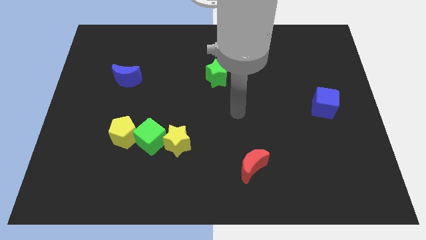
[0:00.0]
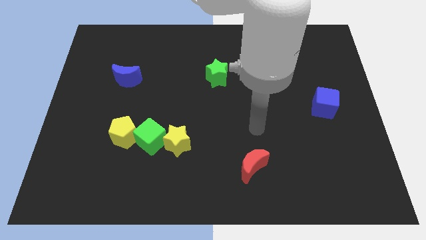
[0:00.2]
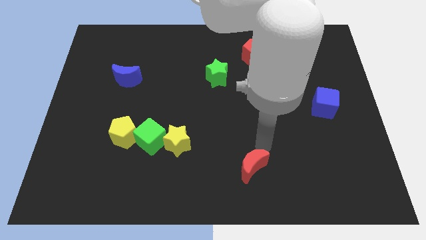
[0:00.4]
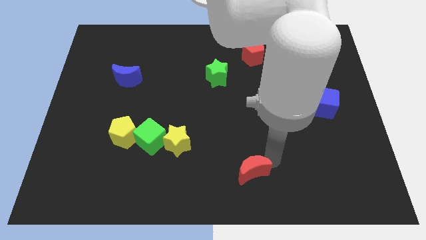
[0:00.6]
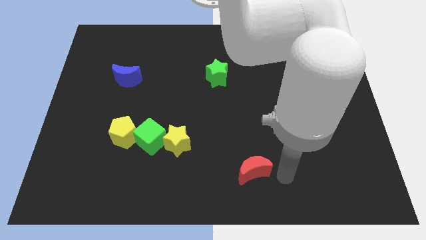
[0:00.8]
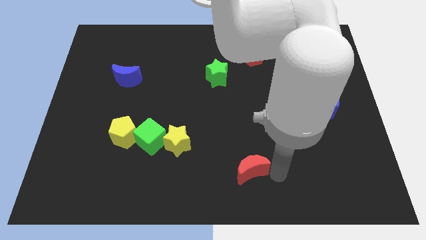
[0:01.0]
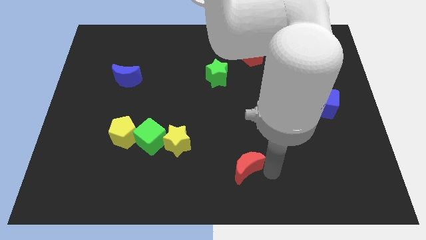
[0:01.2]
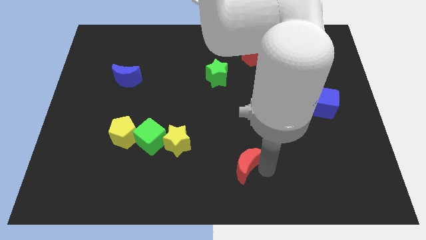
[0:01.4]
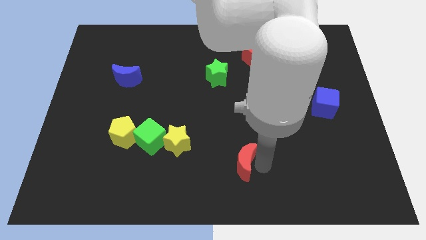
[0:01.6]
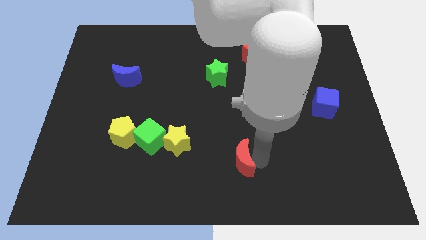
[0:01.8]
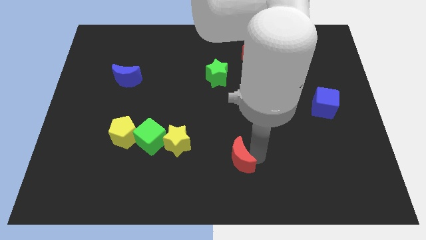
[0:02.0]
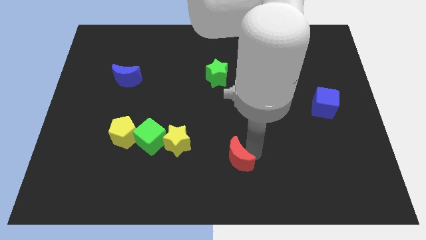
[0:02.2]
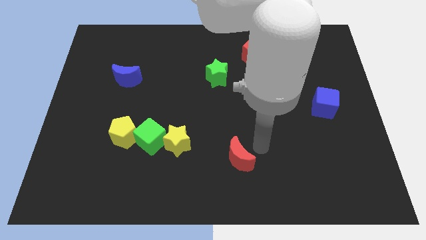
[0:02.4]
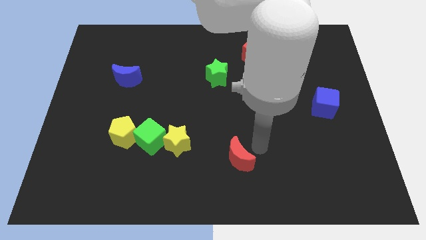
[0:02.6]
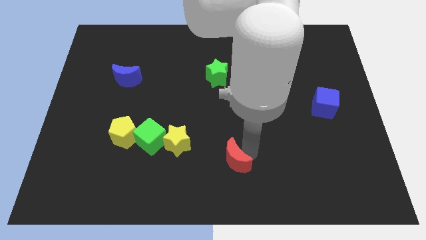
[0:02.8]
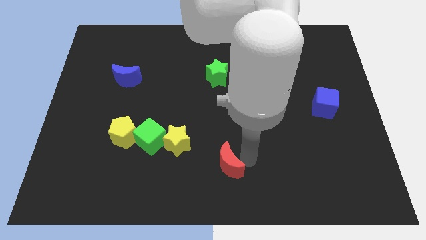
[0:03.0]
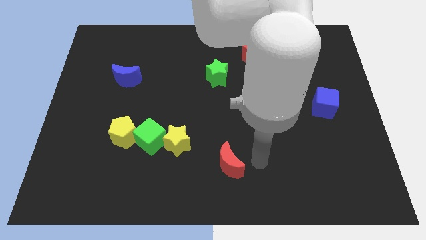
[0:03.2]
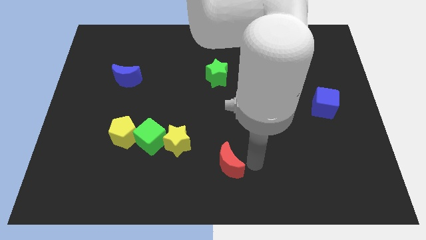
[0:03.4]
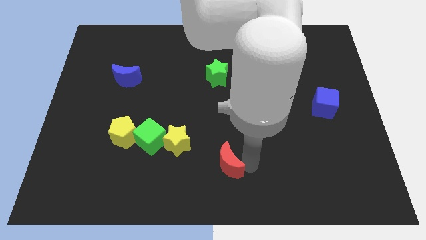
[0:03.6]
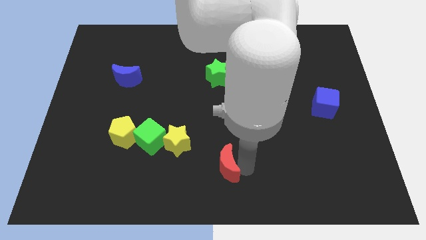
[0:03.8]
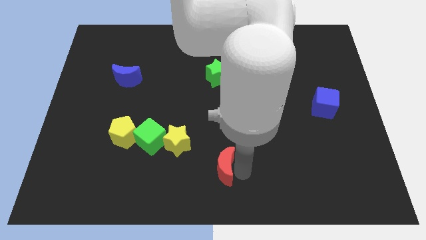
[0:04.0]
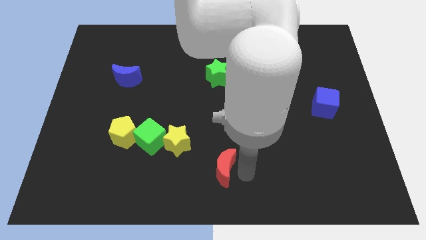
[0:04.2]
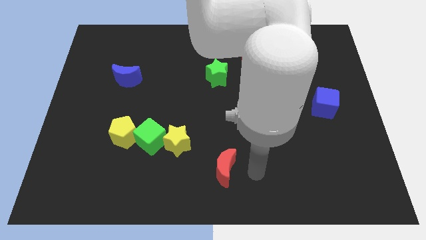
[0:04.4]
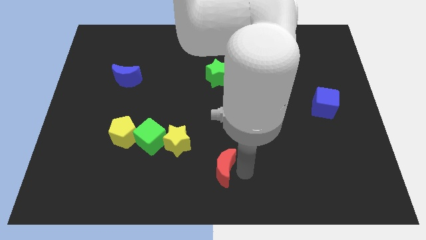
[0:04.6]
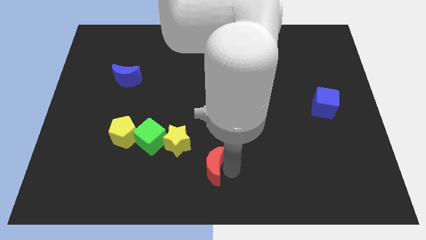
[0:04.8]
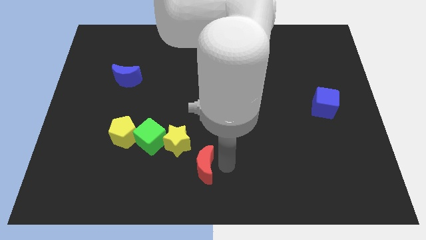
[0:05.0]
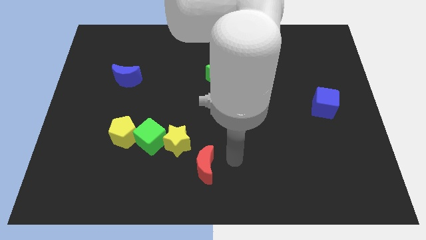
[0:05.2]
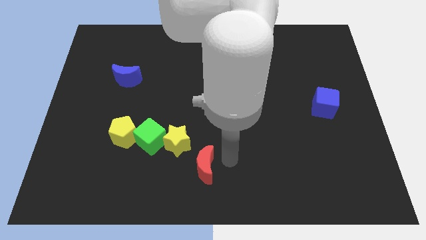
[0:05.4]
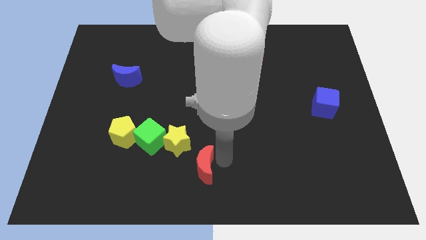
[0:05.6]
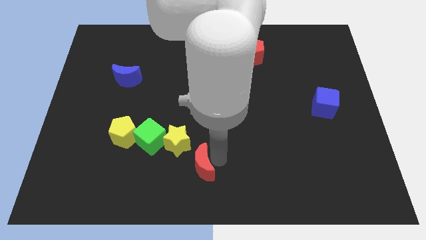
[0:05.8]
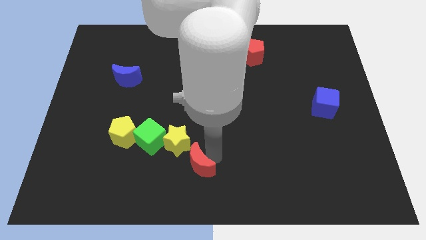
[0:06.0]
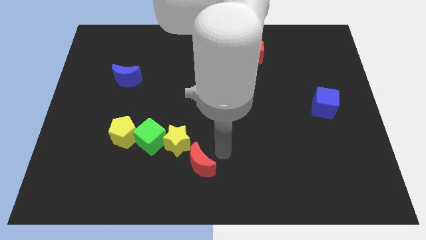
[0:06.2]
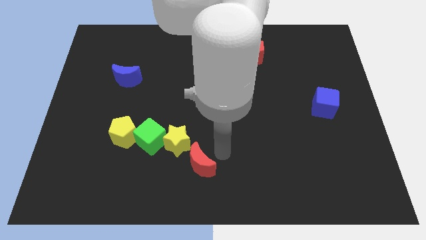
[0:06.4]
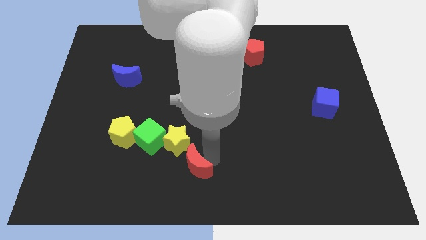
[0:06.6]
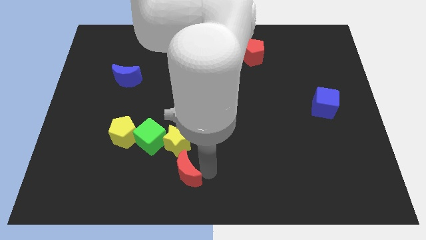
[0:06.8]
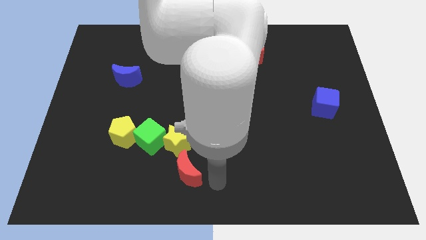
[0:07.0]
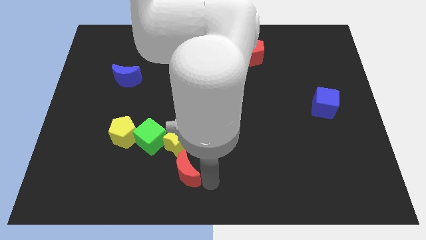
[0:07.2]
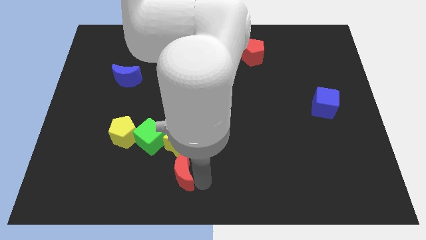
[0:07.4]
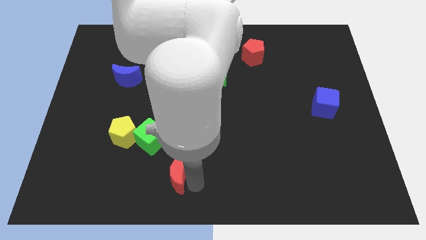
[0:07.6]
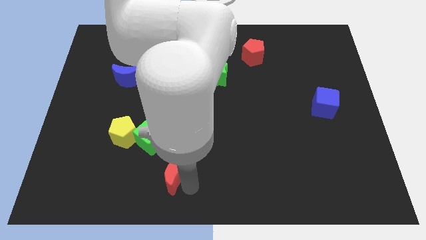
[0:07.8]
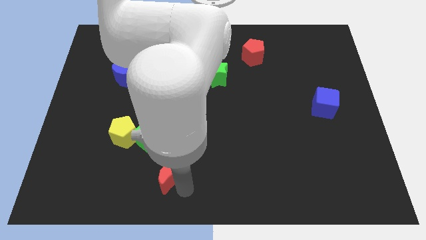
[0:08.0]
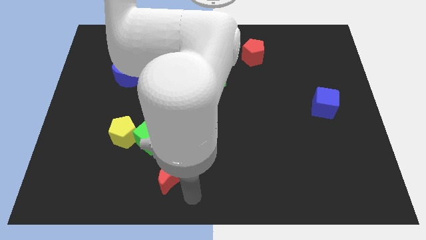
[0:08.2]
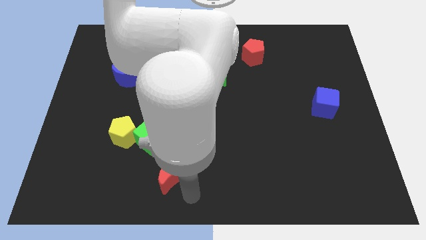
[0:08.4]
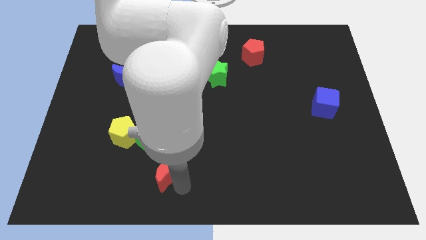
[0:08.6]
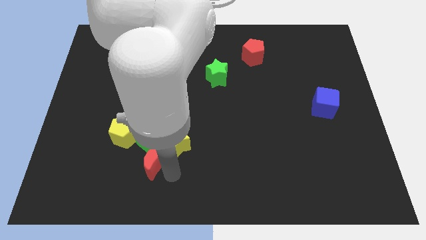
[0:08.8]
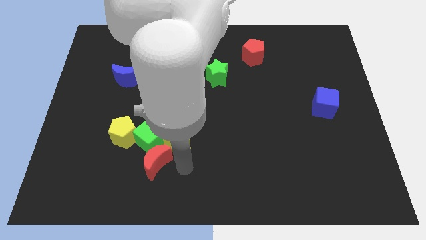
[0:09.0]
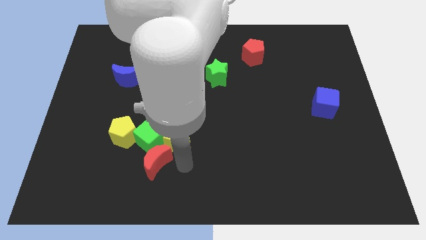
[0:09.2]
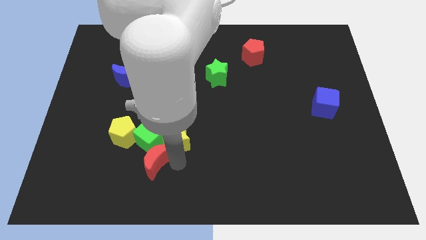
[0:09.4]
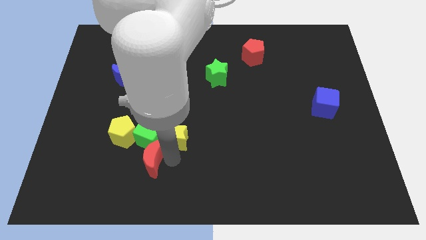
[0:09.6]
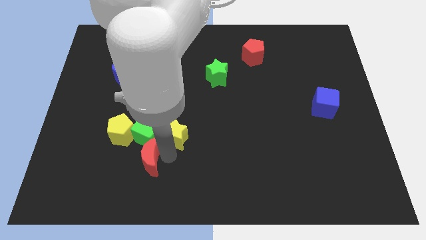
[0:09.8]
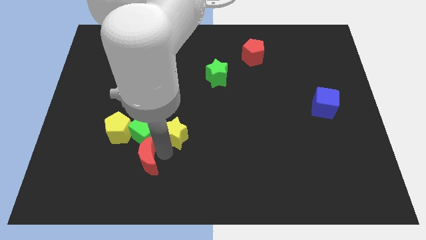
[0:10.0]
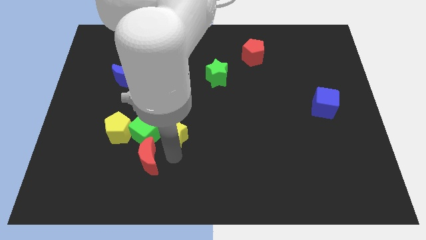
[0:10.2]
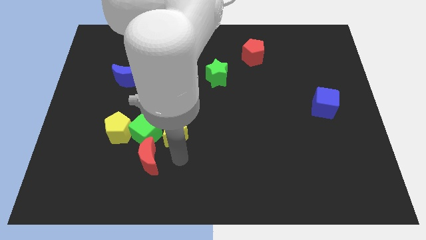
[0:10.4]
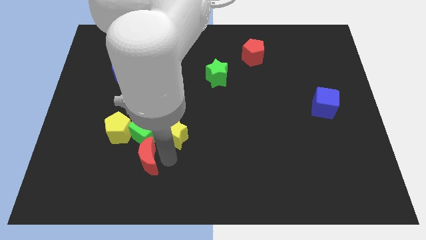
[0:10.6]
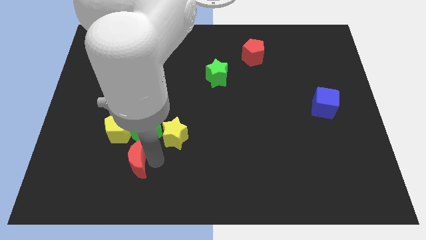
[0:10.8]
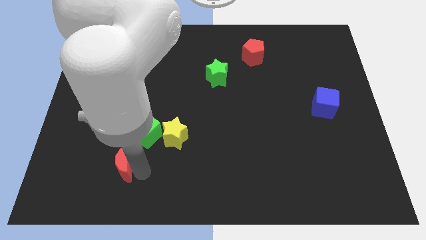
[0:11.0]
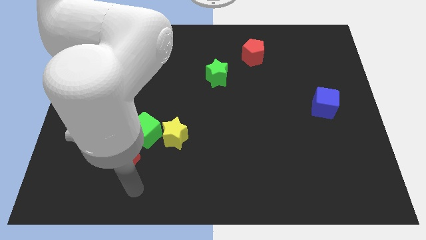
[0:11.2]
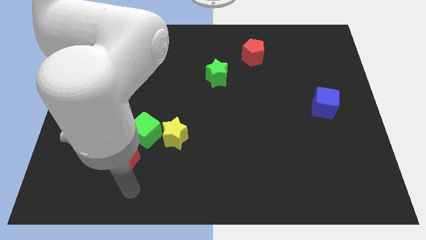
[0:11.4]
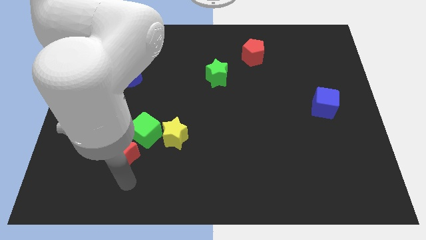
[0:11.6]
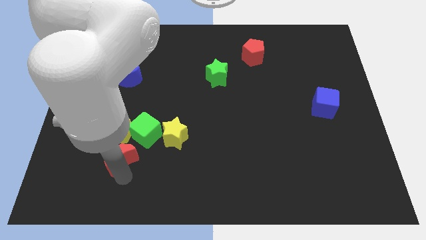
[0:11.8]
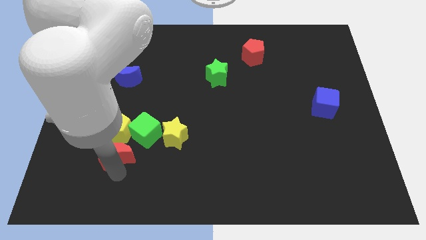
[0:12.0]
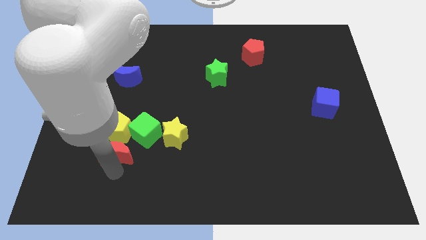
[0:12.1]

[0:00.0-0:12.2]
put the red moon close to the yellow pentagon

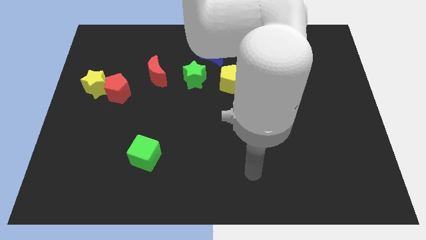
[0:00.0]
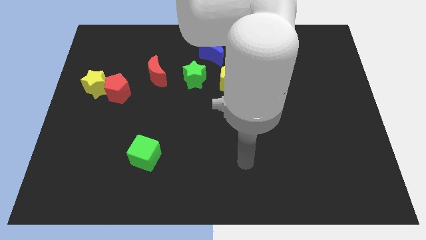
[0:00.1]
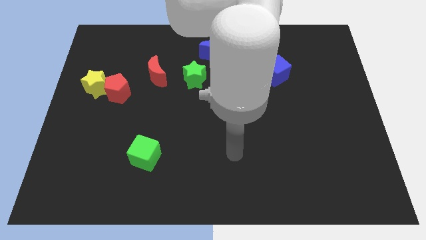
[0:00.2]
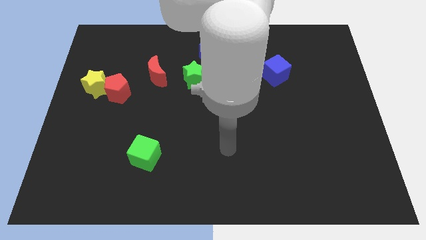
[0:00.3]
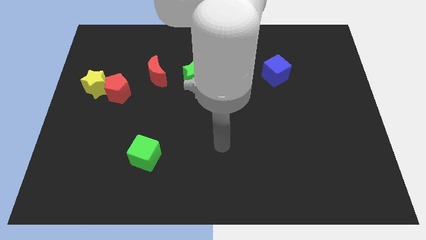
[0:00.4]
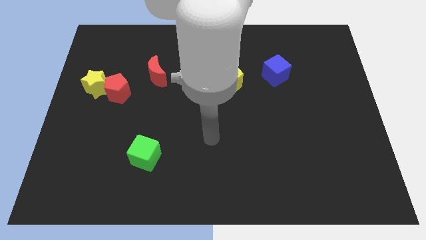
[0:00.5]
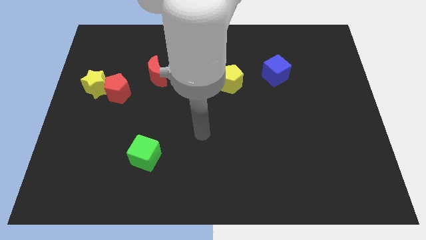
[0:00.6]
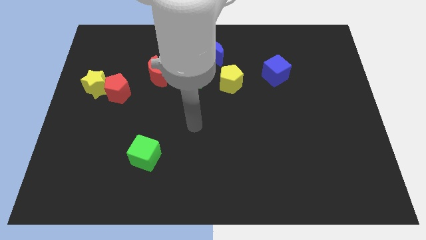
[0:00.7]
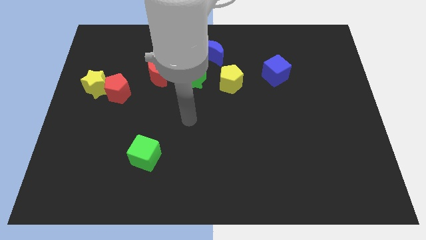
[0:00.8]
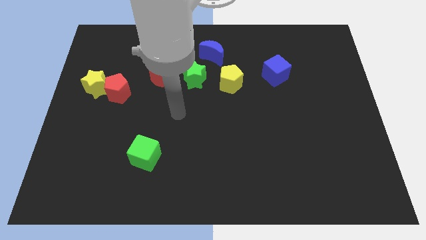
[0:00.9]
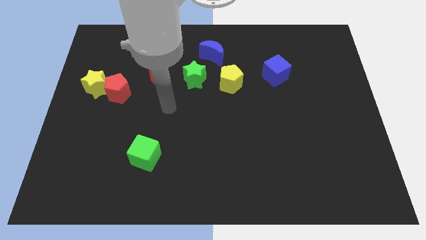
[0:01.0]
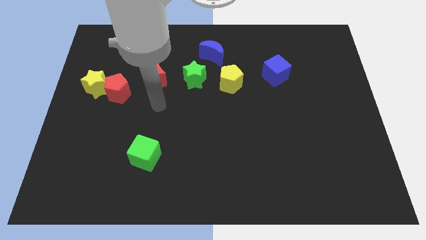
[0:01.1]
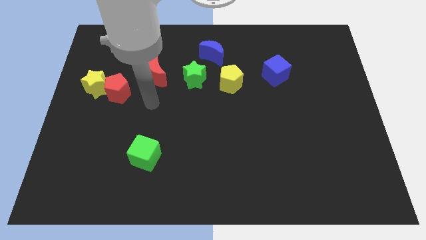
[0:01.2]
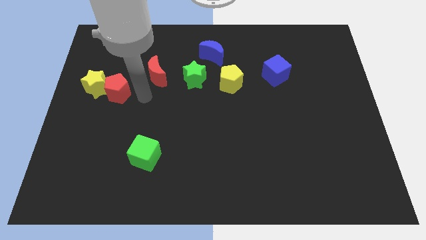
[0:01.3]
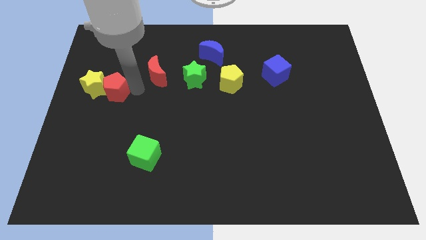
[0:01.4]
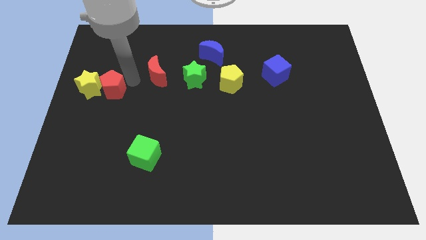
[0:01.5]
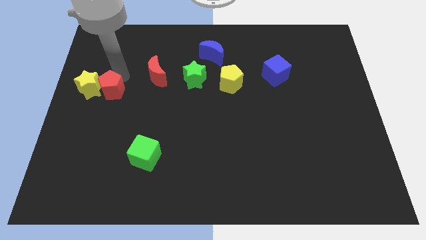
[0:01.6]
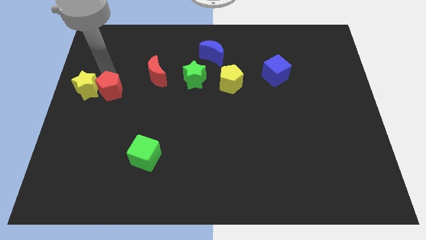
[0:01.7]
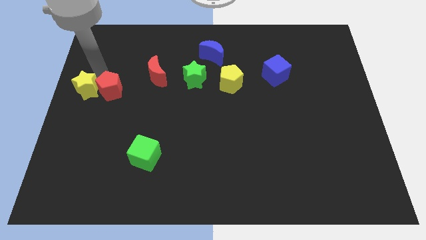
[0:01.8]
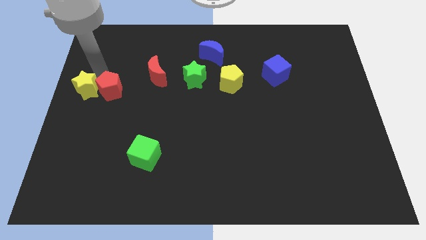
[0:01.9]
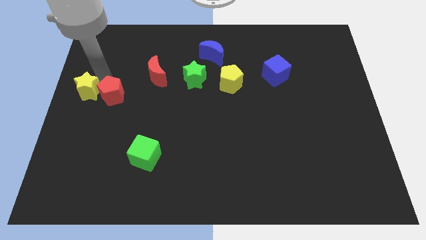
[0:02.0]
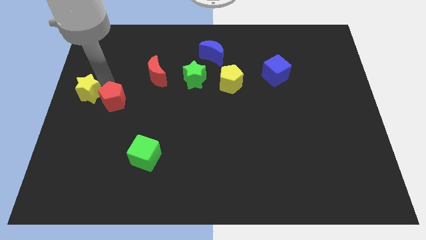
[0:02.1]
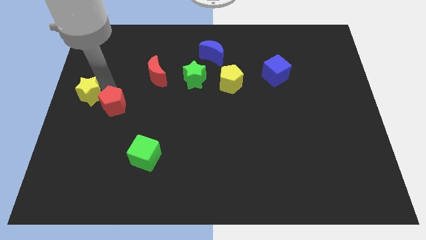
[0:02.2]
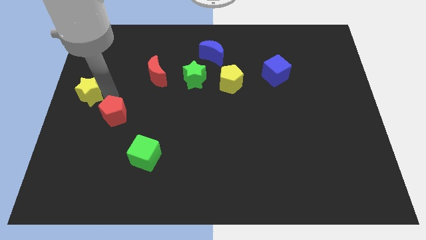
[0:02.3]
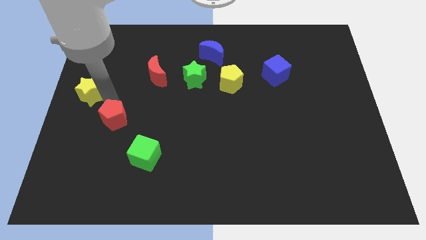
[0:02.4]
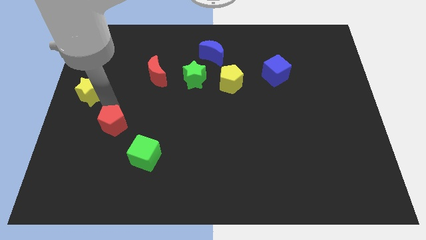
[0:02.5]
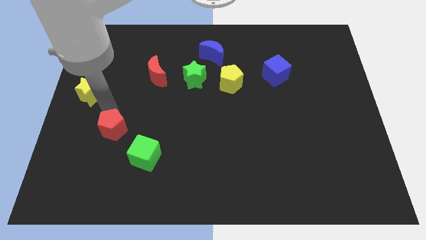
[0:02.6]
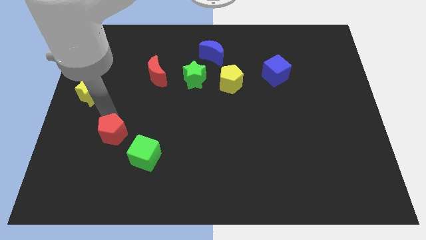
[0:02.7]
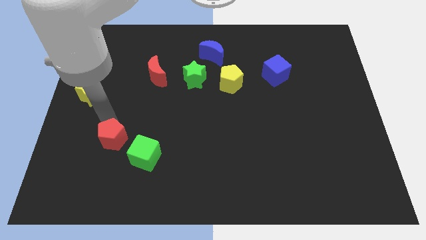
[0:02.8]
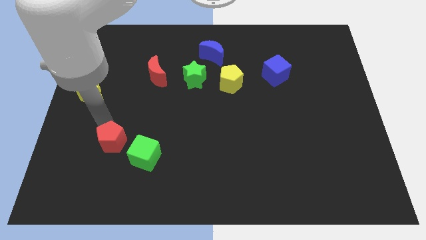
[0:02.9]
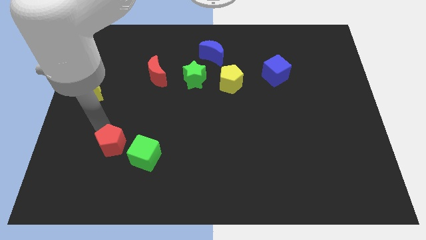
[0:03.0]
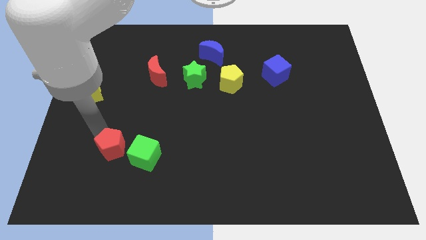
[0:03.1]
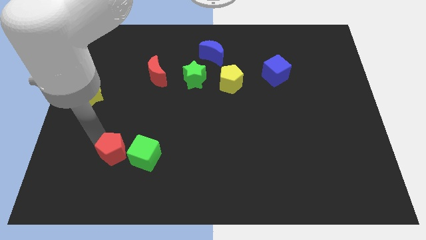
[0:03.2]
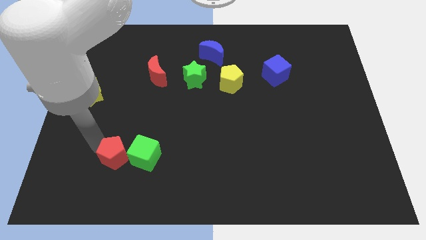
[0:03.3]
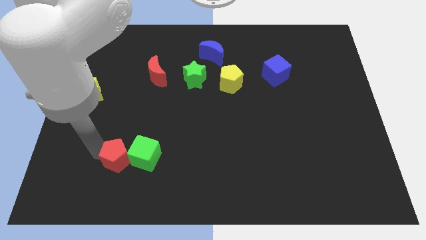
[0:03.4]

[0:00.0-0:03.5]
push the red pentagon close to the green cube
